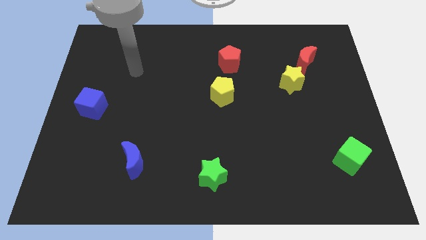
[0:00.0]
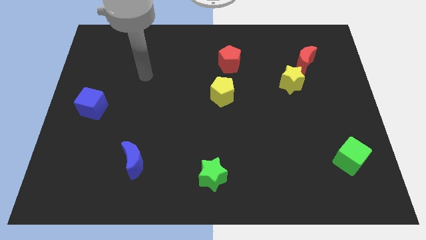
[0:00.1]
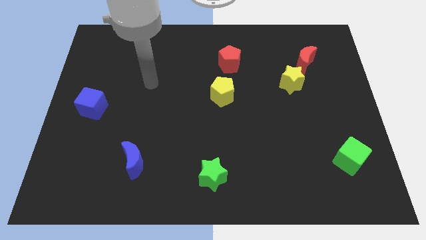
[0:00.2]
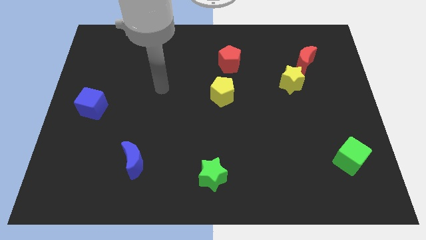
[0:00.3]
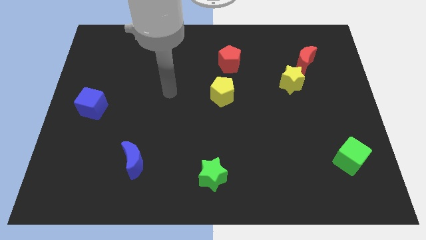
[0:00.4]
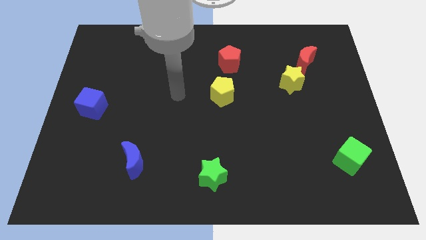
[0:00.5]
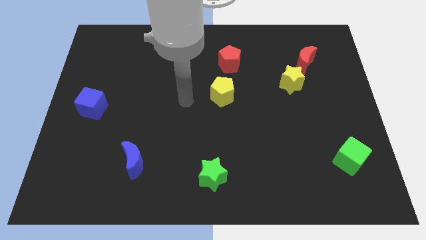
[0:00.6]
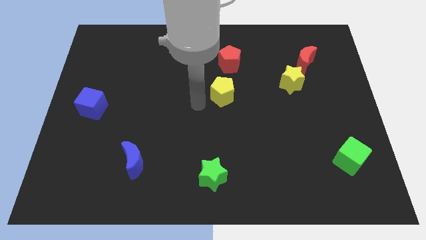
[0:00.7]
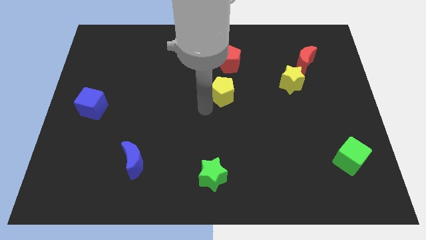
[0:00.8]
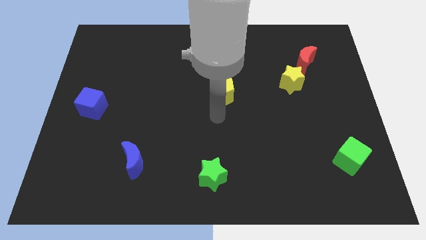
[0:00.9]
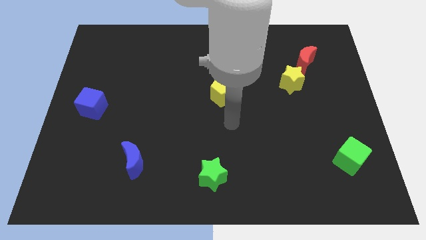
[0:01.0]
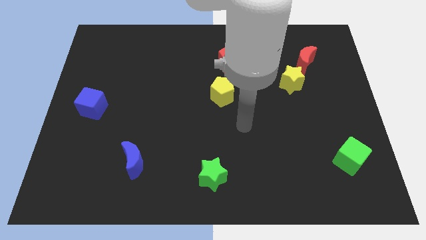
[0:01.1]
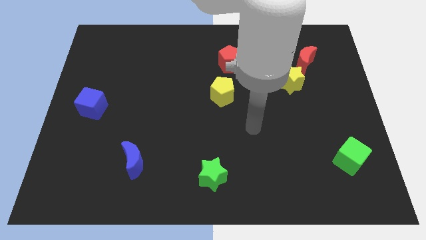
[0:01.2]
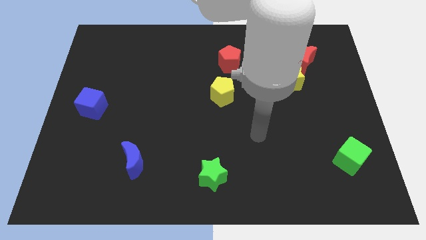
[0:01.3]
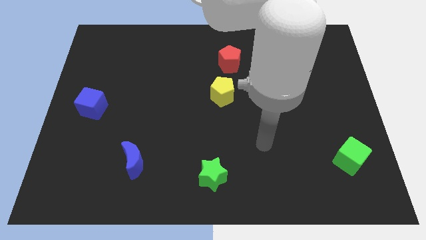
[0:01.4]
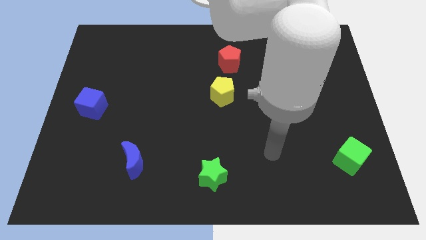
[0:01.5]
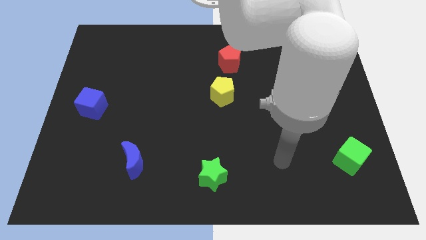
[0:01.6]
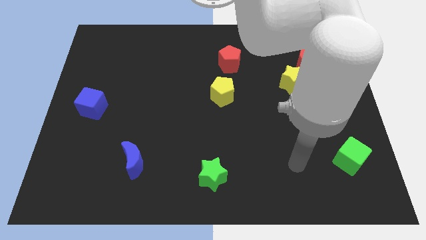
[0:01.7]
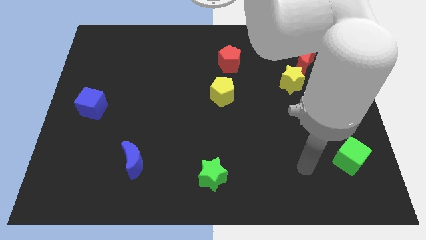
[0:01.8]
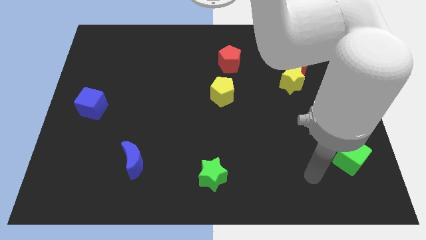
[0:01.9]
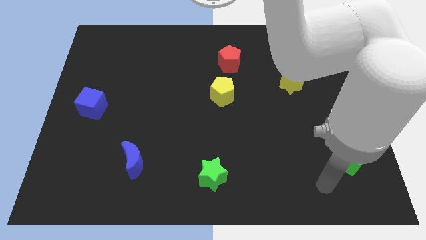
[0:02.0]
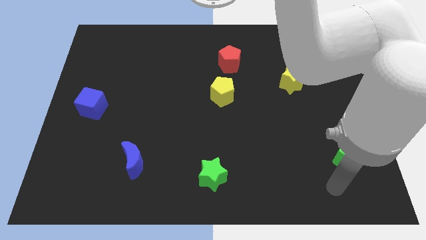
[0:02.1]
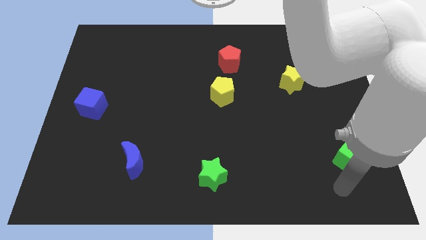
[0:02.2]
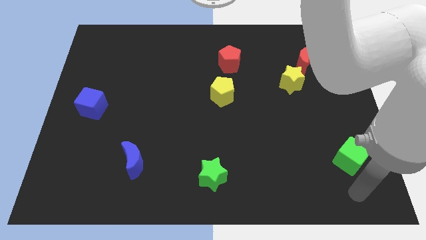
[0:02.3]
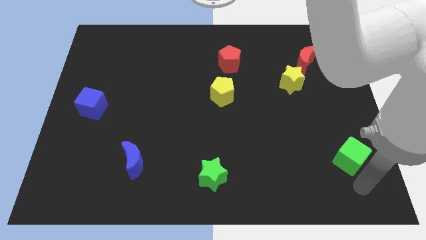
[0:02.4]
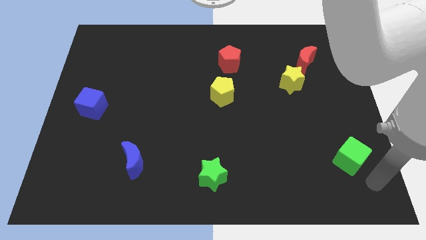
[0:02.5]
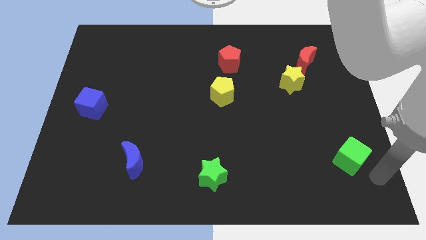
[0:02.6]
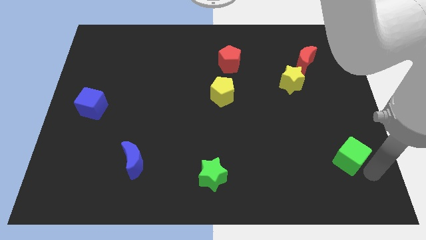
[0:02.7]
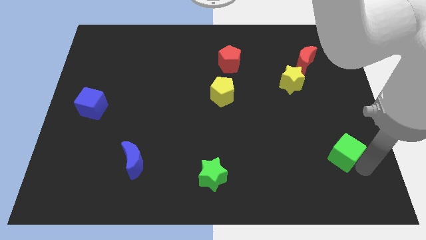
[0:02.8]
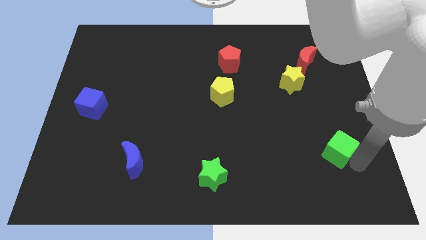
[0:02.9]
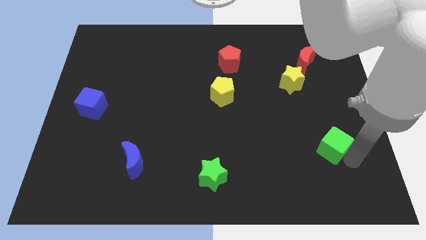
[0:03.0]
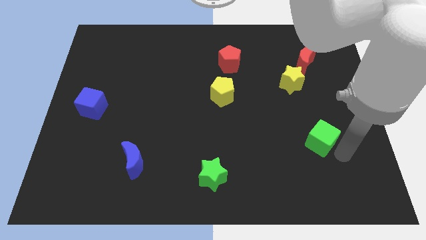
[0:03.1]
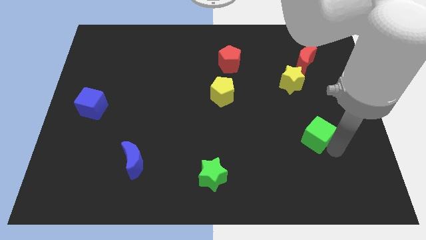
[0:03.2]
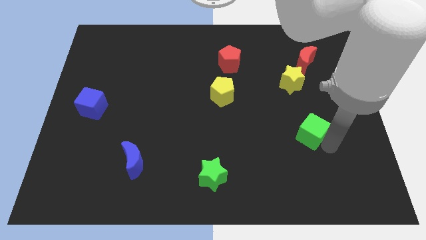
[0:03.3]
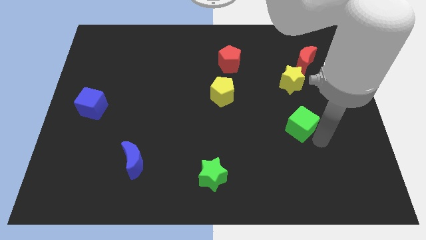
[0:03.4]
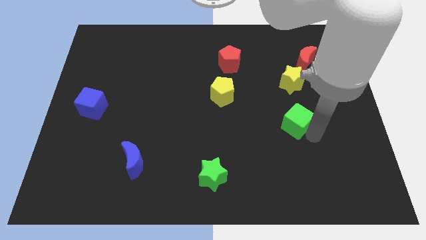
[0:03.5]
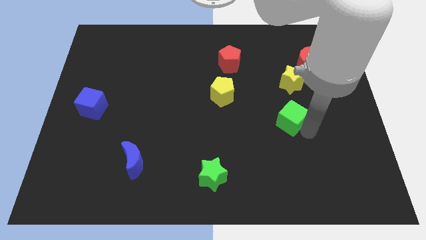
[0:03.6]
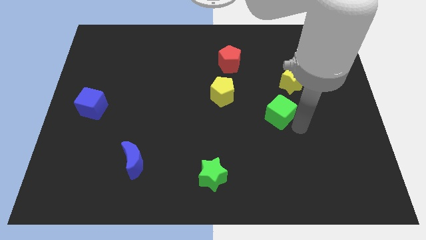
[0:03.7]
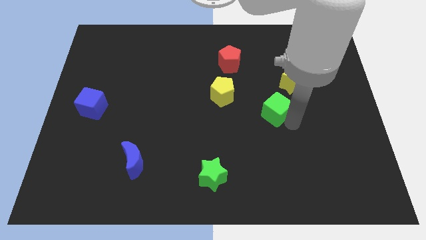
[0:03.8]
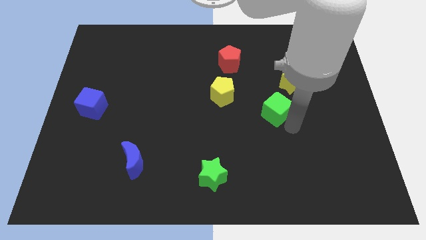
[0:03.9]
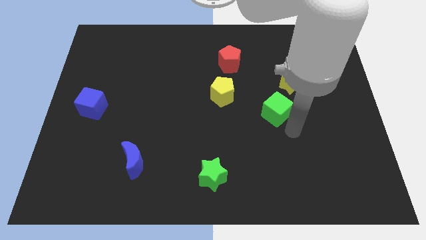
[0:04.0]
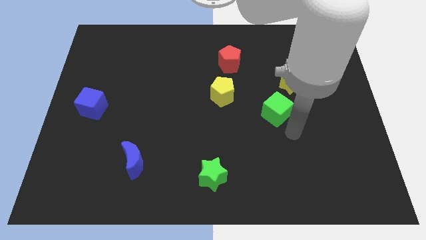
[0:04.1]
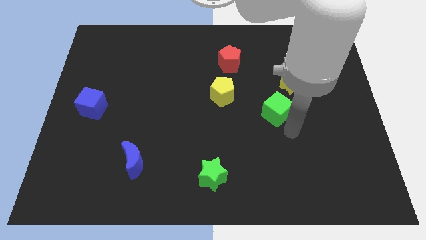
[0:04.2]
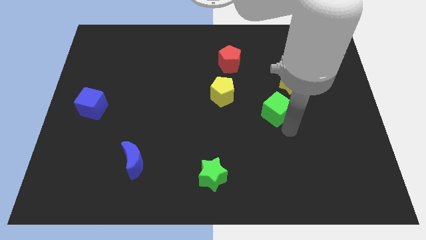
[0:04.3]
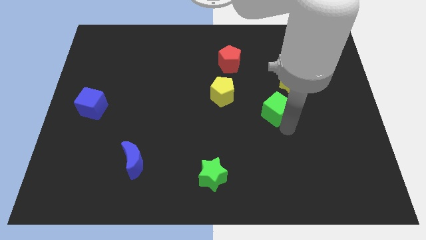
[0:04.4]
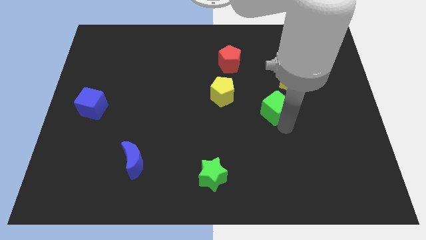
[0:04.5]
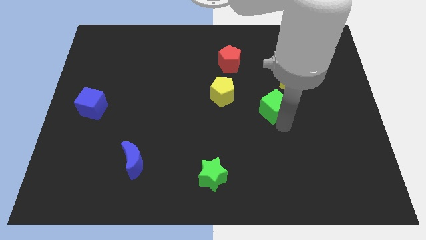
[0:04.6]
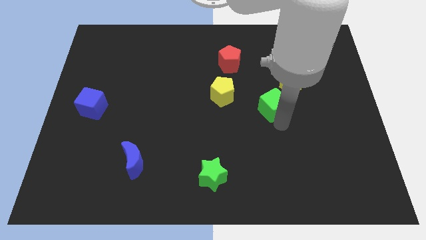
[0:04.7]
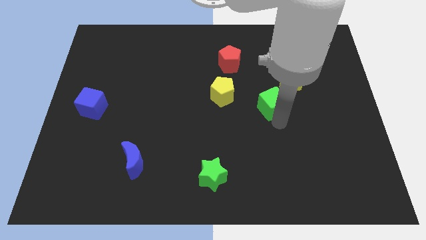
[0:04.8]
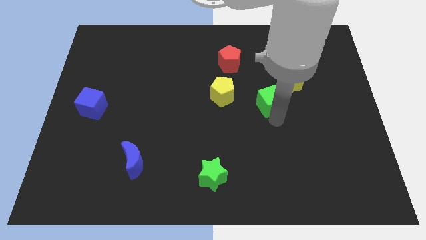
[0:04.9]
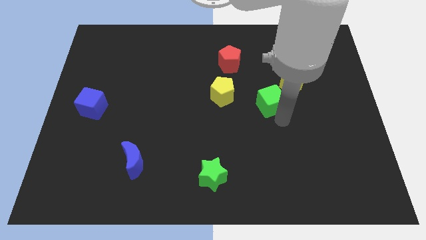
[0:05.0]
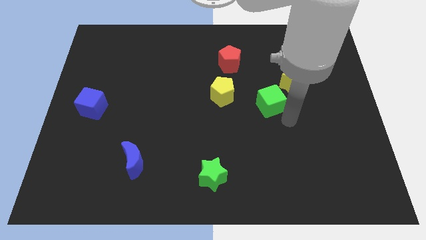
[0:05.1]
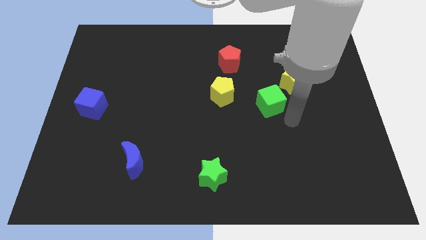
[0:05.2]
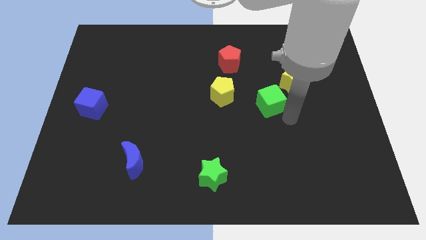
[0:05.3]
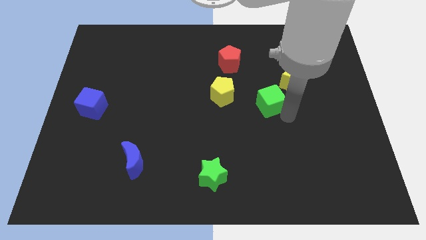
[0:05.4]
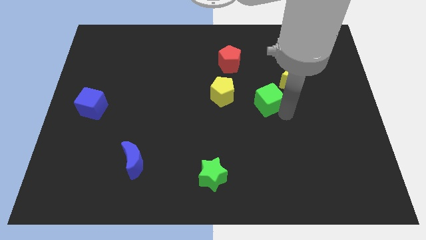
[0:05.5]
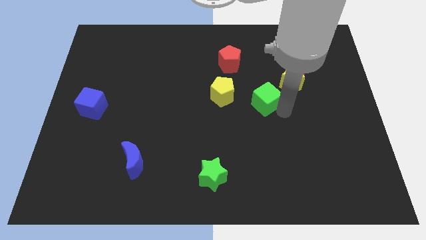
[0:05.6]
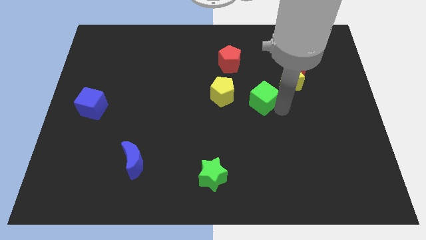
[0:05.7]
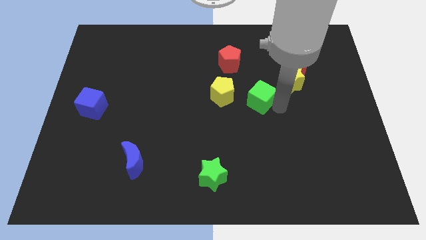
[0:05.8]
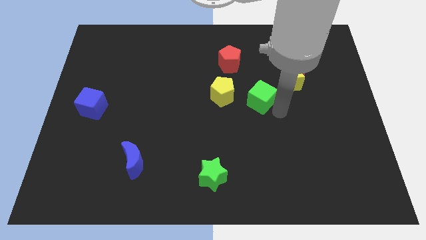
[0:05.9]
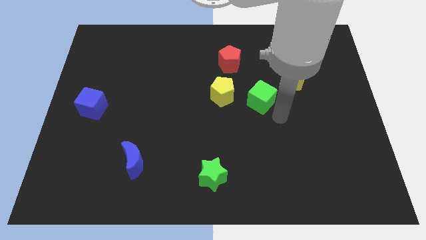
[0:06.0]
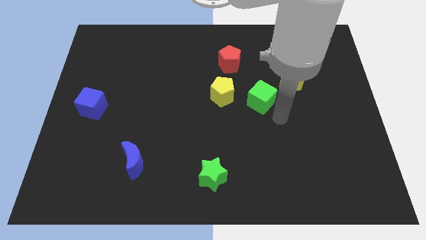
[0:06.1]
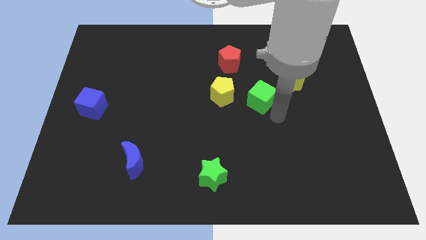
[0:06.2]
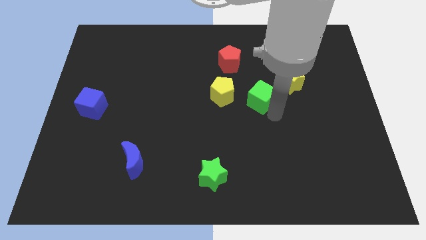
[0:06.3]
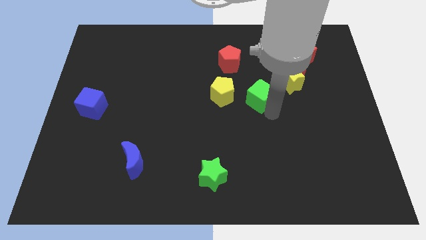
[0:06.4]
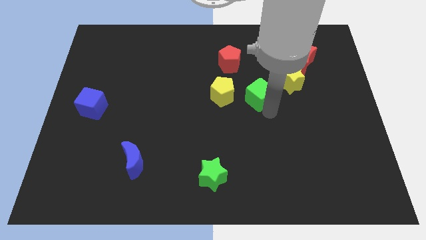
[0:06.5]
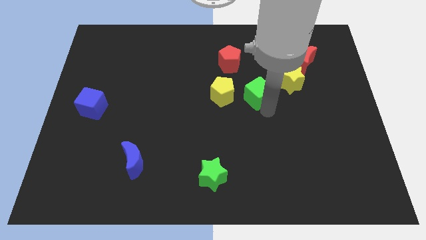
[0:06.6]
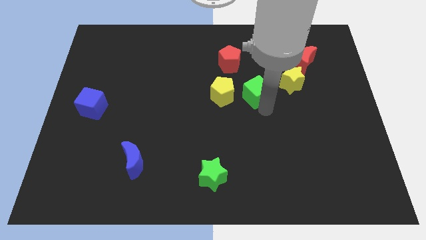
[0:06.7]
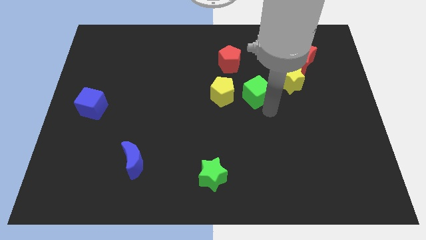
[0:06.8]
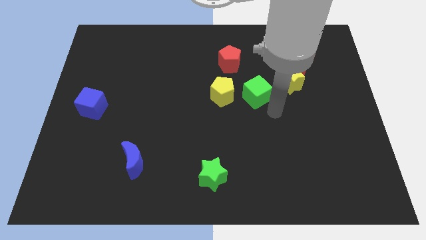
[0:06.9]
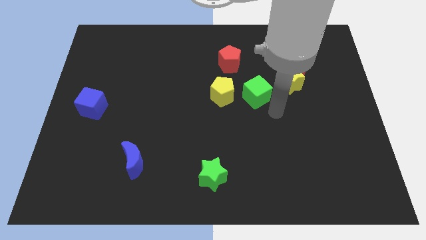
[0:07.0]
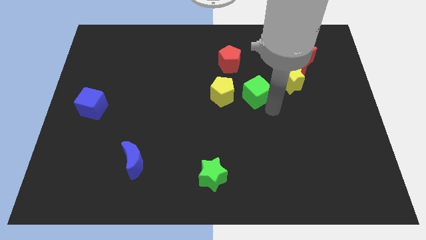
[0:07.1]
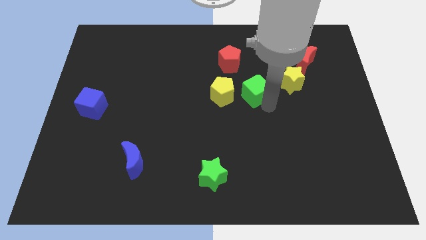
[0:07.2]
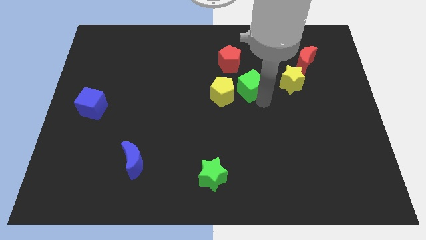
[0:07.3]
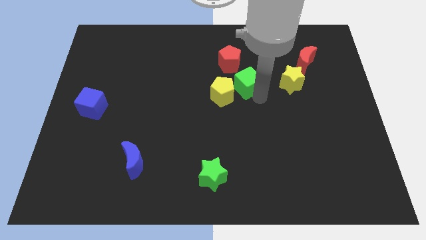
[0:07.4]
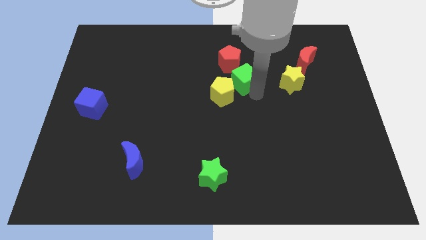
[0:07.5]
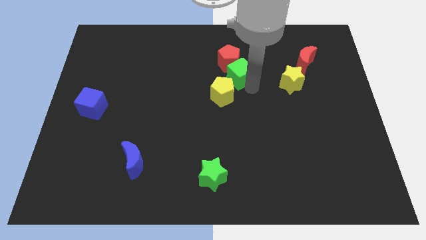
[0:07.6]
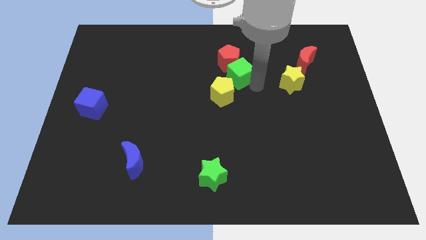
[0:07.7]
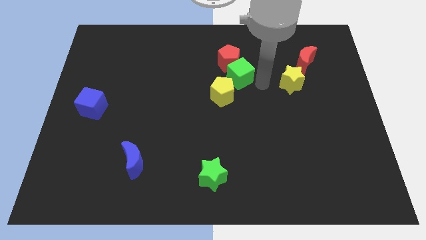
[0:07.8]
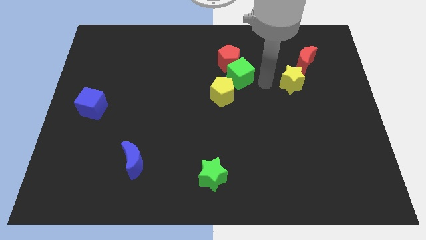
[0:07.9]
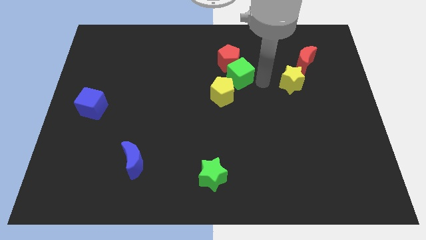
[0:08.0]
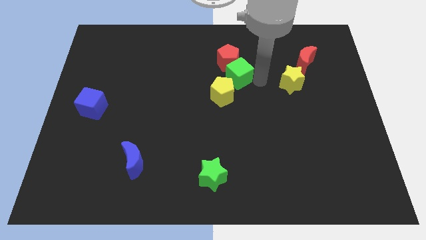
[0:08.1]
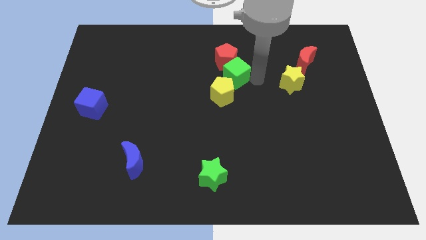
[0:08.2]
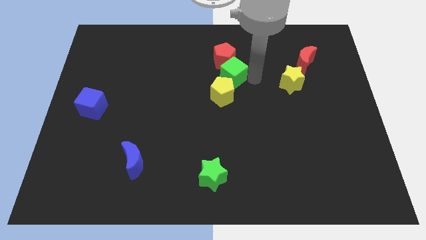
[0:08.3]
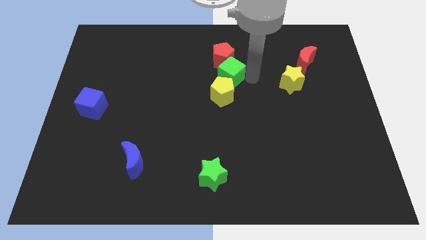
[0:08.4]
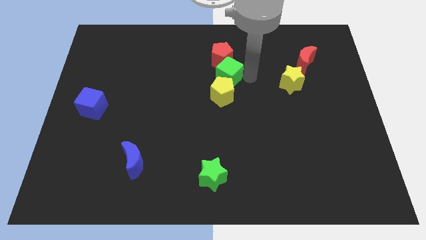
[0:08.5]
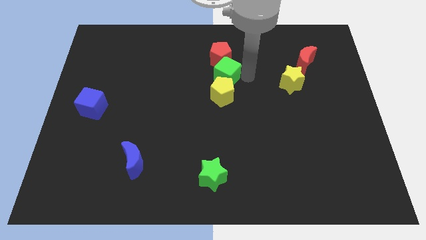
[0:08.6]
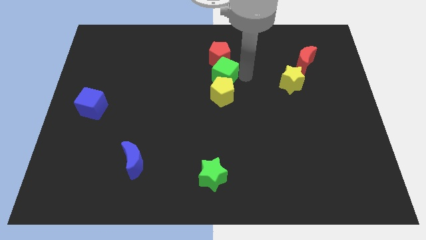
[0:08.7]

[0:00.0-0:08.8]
put the green cube to the top left of the yellow pentagon
